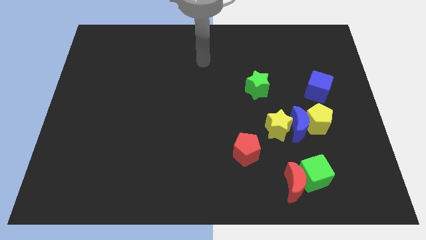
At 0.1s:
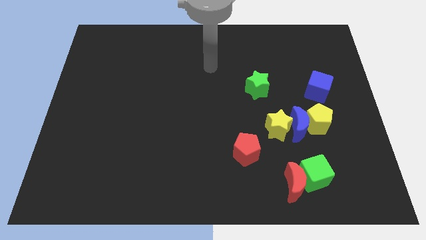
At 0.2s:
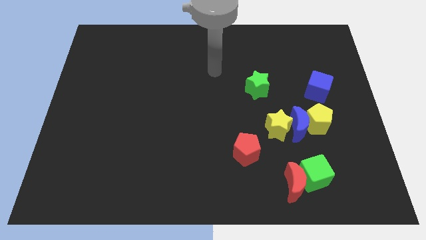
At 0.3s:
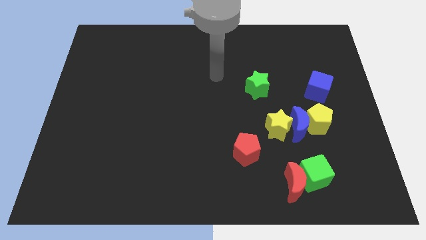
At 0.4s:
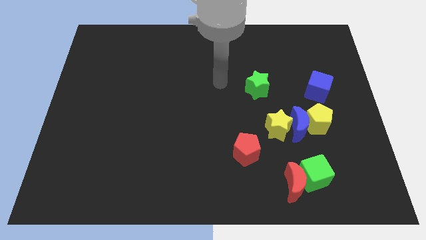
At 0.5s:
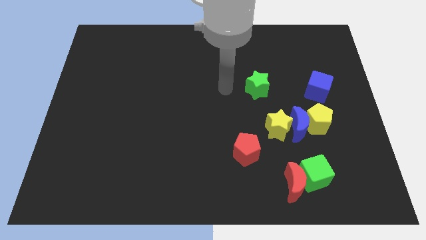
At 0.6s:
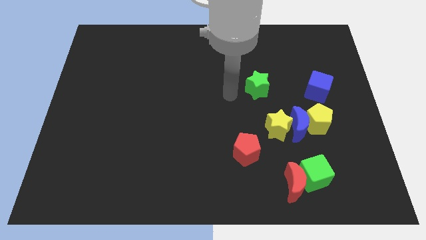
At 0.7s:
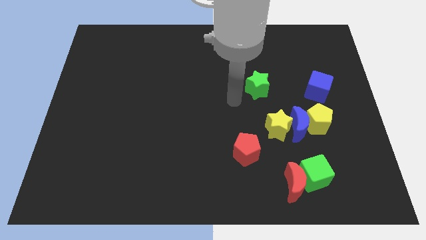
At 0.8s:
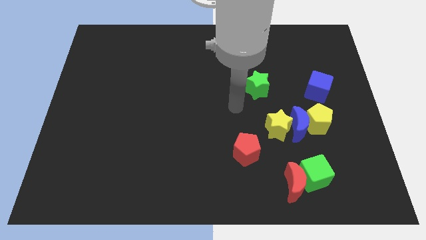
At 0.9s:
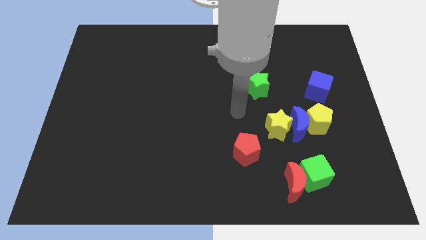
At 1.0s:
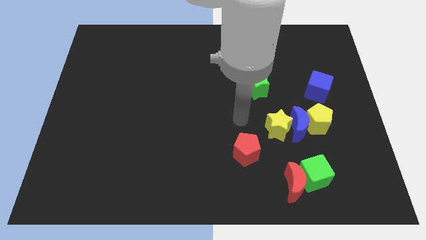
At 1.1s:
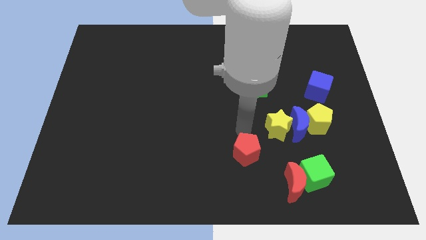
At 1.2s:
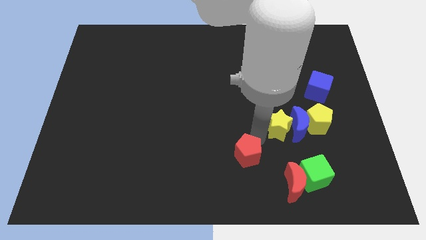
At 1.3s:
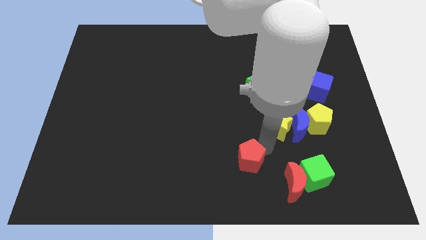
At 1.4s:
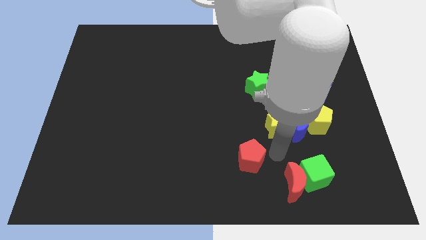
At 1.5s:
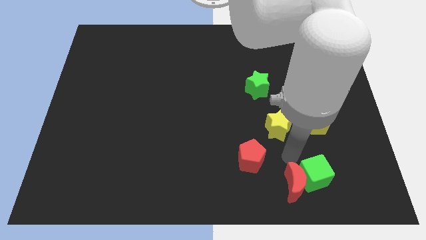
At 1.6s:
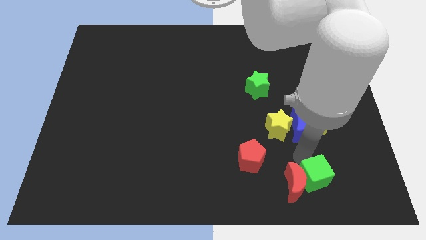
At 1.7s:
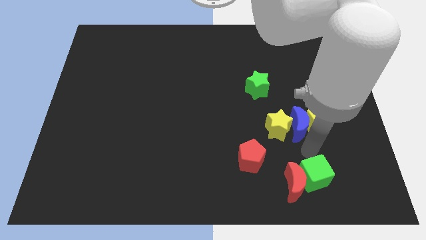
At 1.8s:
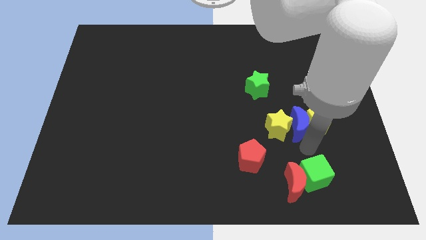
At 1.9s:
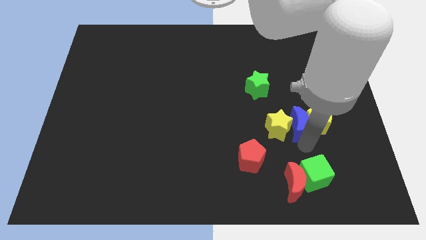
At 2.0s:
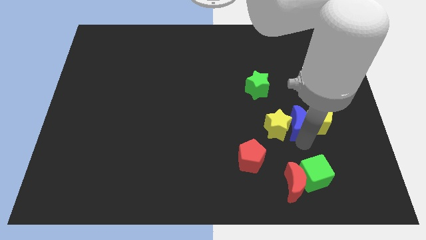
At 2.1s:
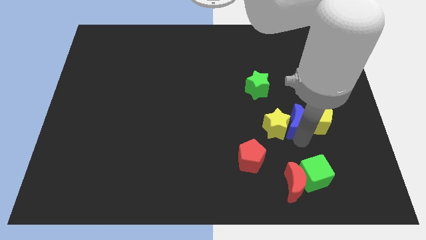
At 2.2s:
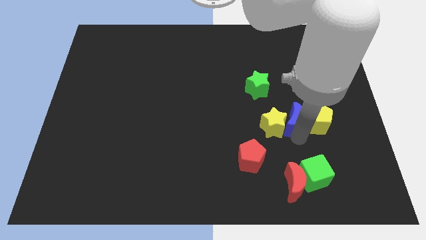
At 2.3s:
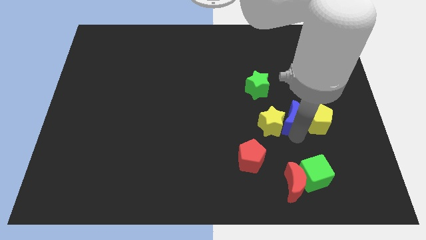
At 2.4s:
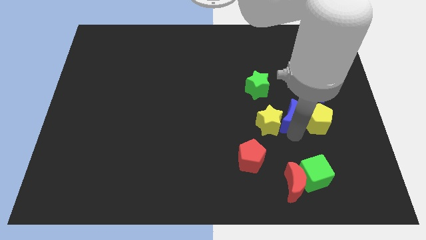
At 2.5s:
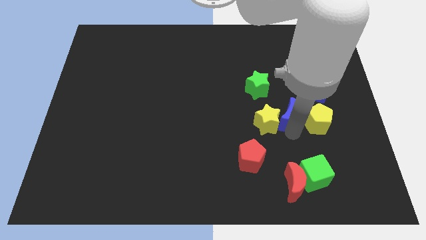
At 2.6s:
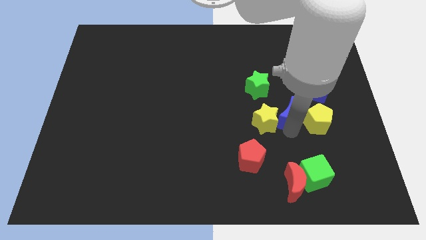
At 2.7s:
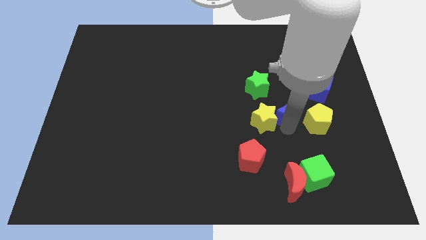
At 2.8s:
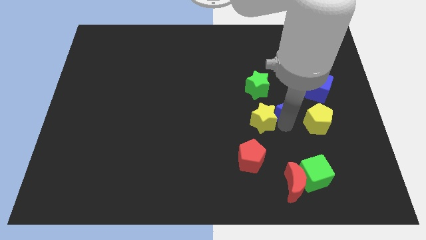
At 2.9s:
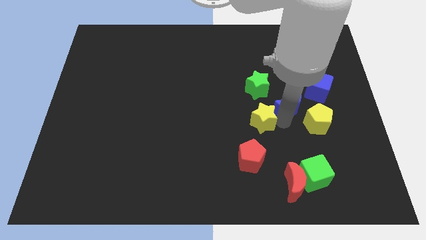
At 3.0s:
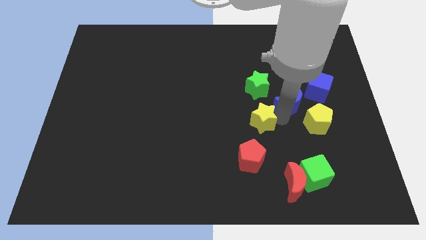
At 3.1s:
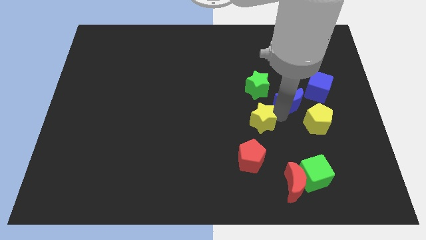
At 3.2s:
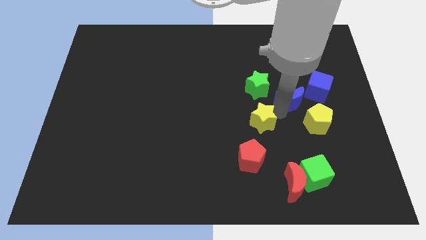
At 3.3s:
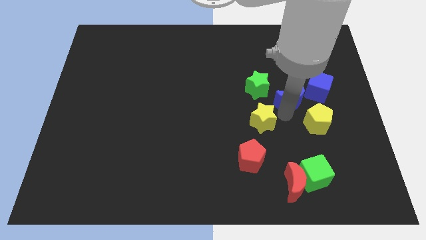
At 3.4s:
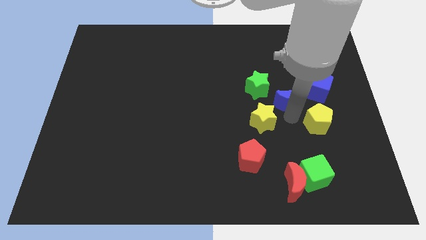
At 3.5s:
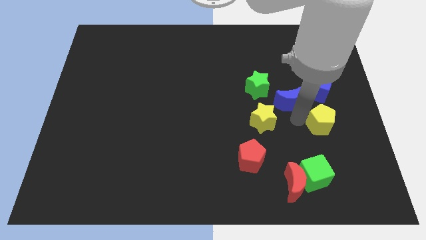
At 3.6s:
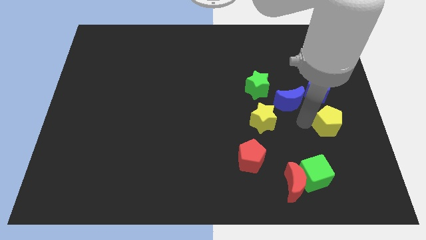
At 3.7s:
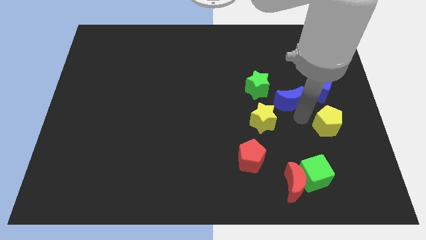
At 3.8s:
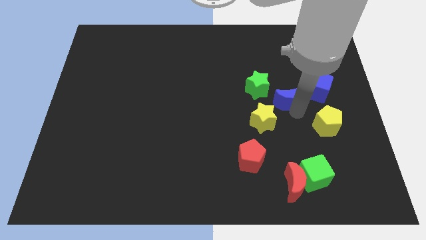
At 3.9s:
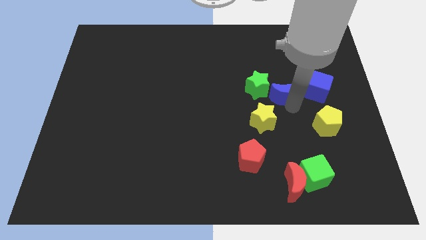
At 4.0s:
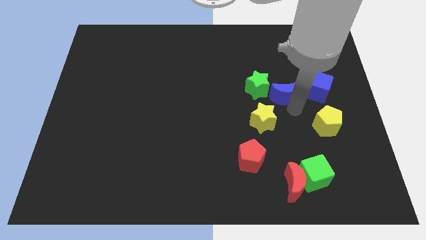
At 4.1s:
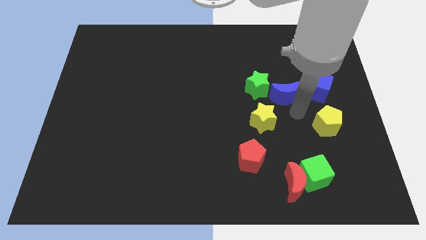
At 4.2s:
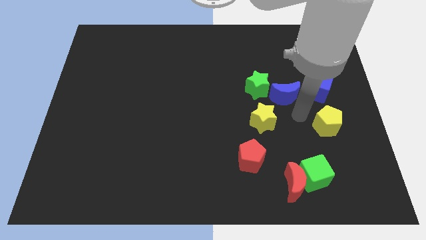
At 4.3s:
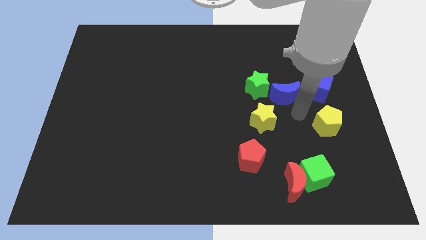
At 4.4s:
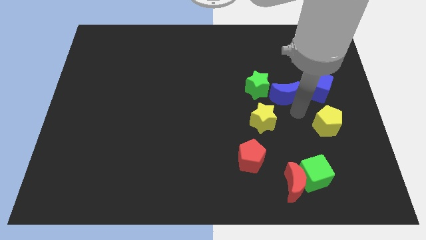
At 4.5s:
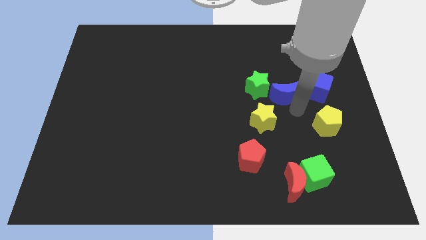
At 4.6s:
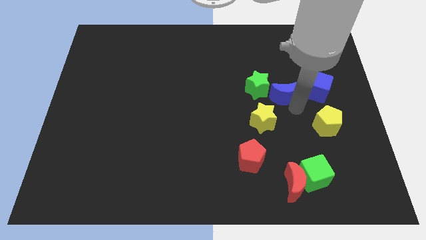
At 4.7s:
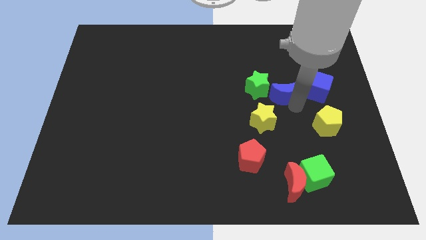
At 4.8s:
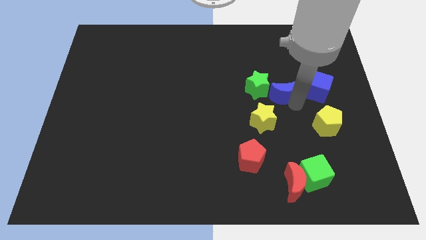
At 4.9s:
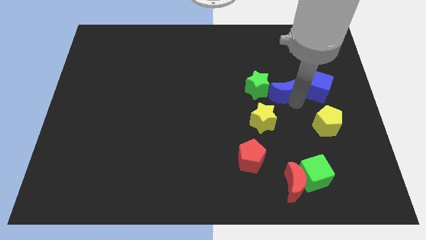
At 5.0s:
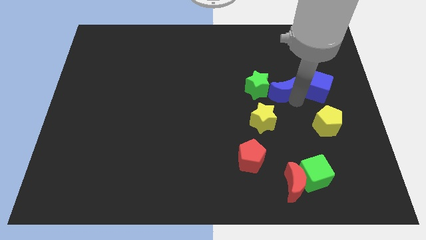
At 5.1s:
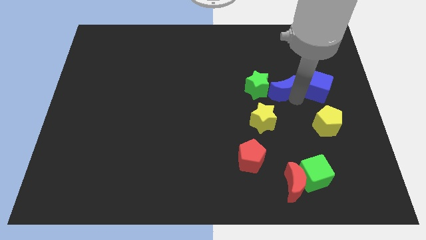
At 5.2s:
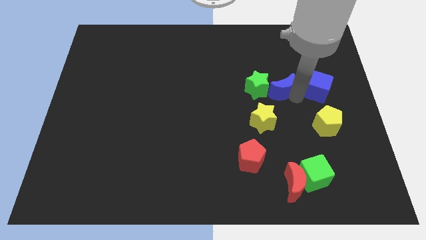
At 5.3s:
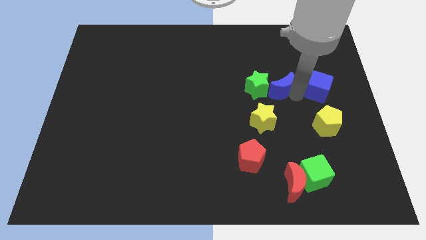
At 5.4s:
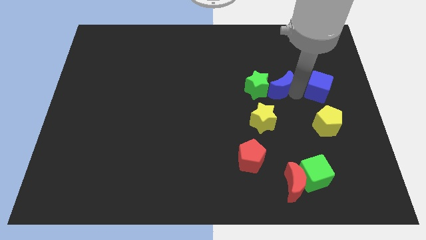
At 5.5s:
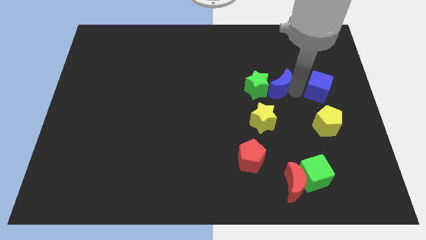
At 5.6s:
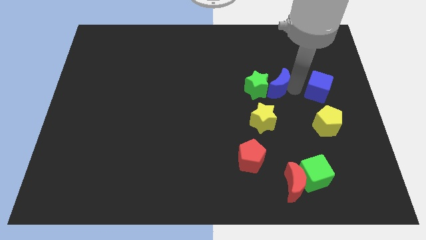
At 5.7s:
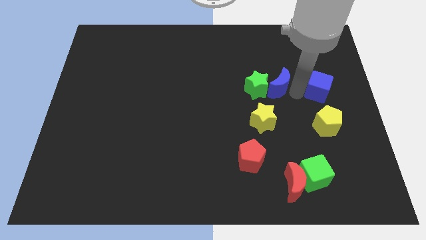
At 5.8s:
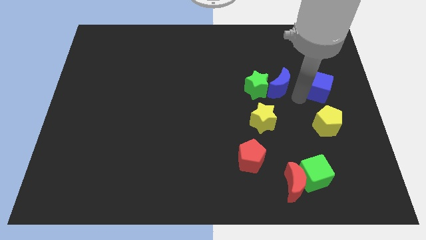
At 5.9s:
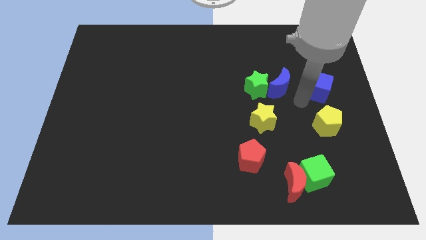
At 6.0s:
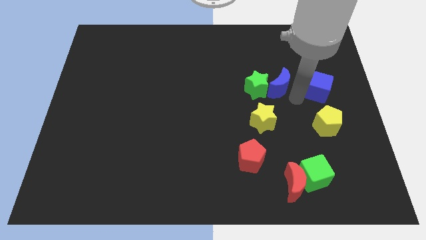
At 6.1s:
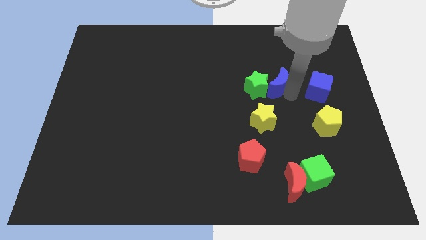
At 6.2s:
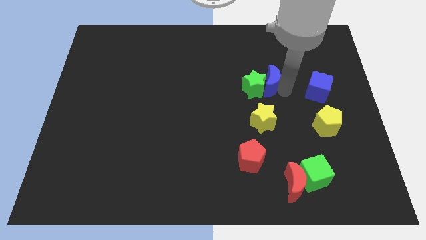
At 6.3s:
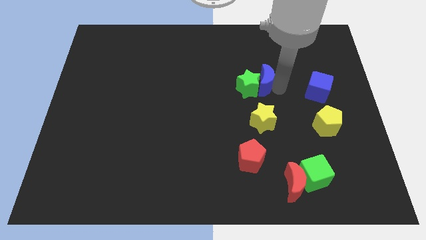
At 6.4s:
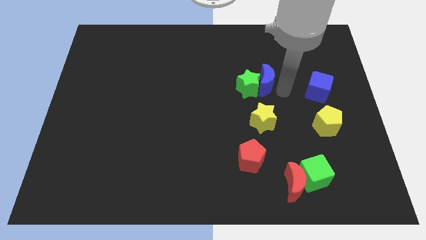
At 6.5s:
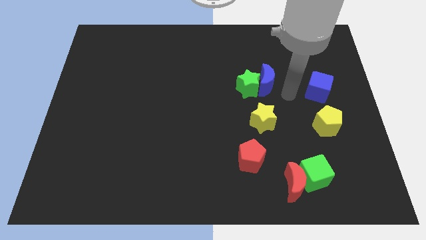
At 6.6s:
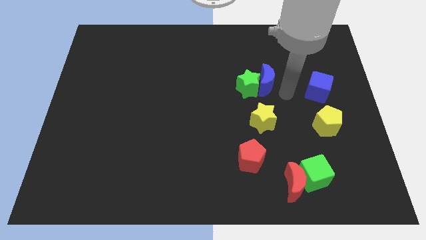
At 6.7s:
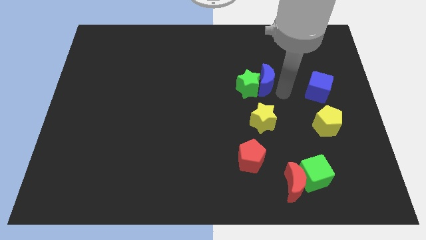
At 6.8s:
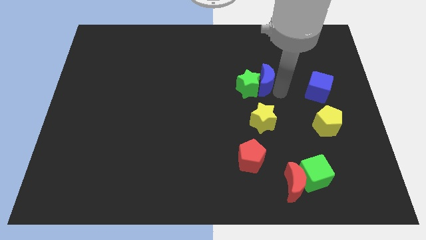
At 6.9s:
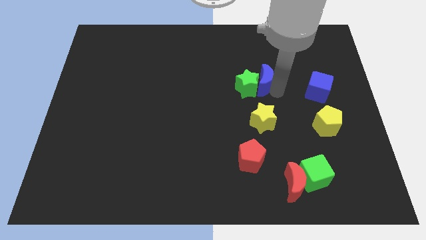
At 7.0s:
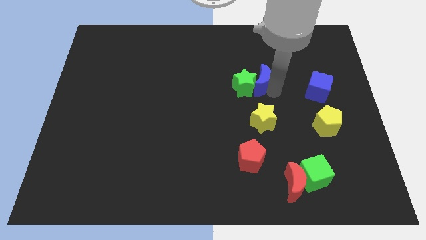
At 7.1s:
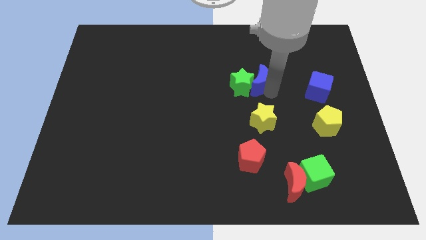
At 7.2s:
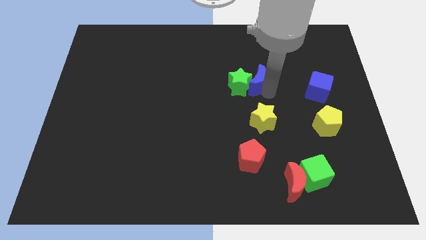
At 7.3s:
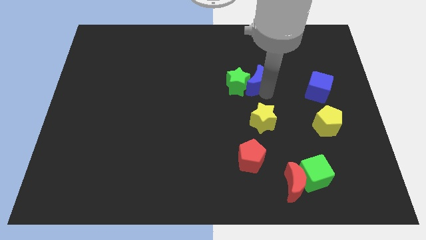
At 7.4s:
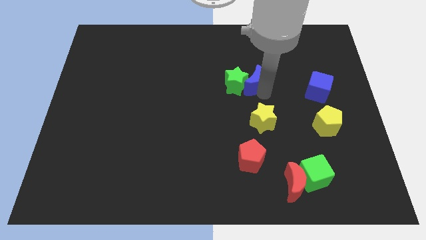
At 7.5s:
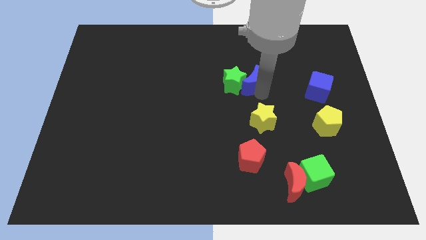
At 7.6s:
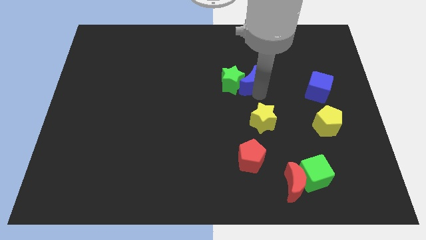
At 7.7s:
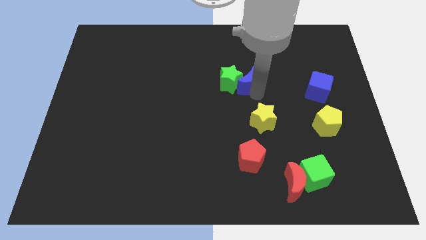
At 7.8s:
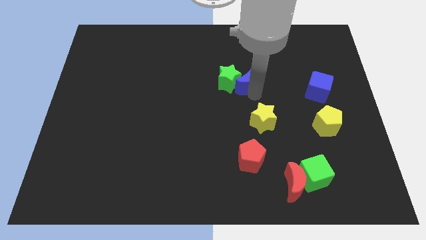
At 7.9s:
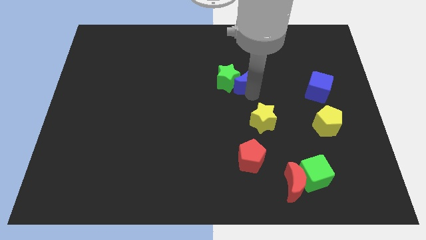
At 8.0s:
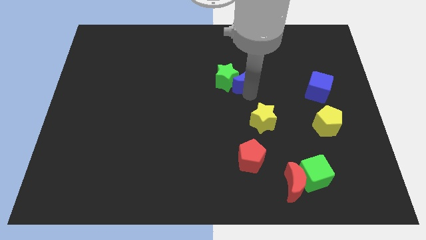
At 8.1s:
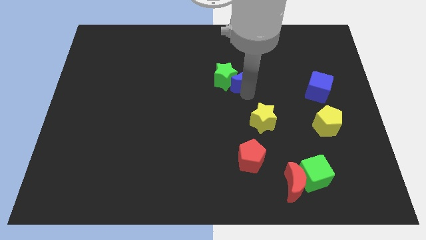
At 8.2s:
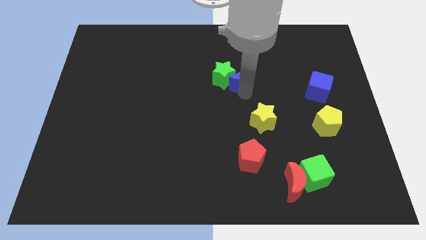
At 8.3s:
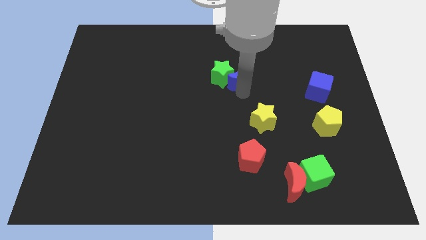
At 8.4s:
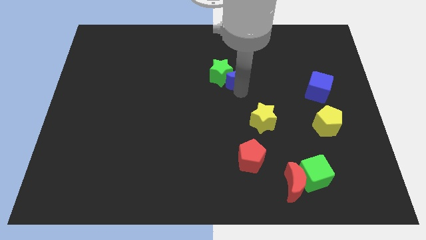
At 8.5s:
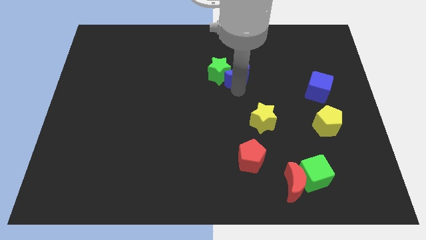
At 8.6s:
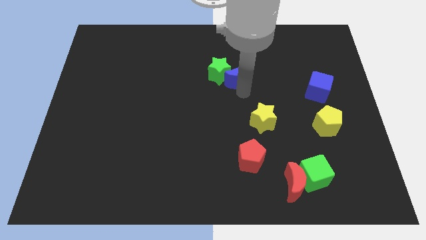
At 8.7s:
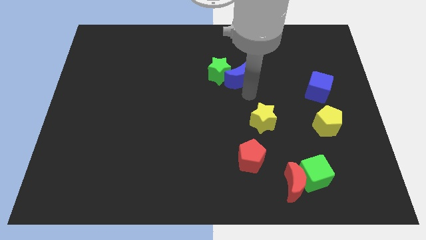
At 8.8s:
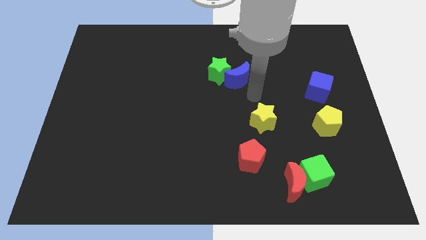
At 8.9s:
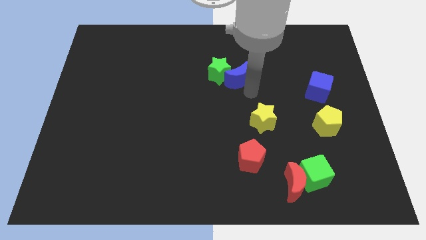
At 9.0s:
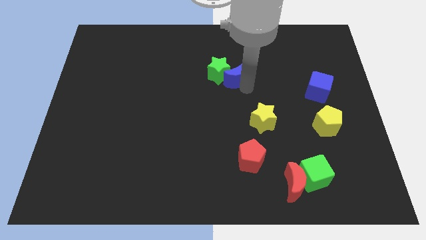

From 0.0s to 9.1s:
slide the blue moon diagonally up and left
